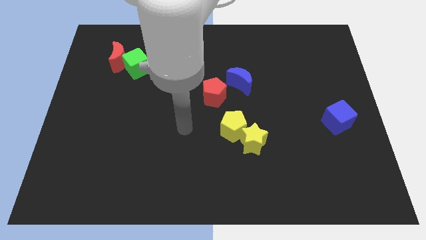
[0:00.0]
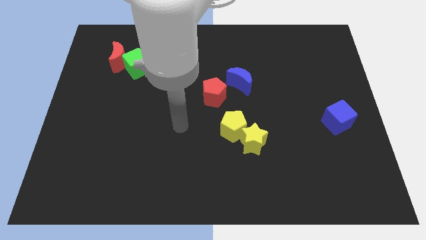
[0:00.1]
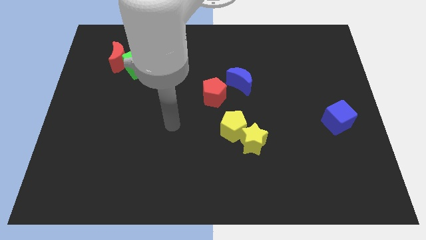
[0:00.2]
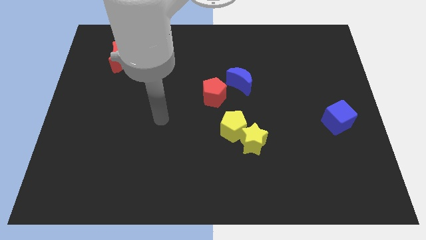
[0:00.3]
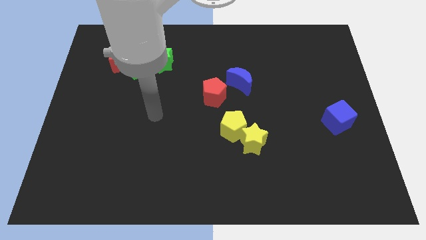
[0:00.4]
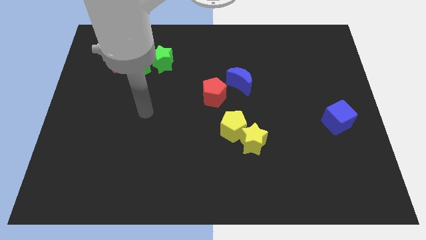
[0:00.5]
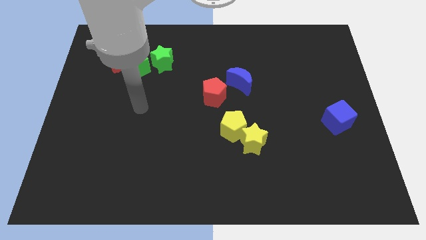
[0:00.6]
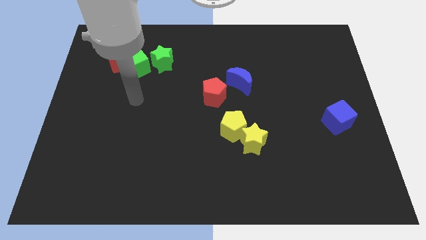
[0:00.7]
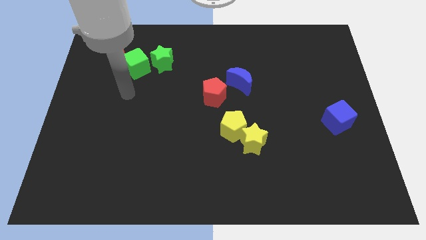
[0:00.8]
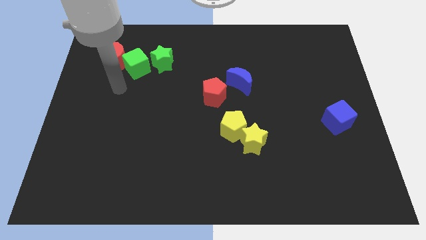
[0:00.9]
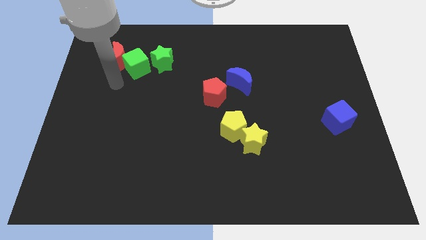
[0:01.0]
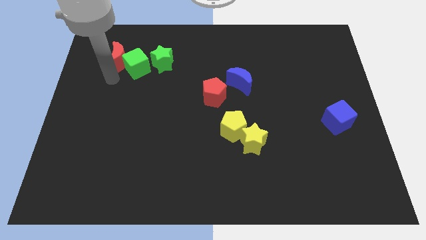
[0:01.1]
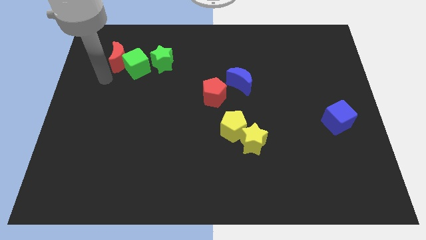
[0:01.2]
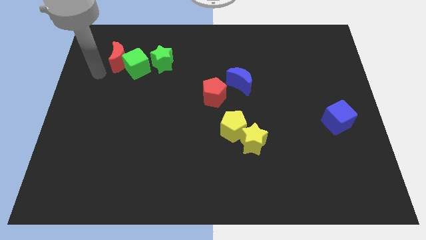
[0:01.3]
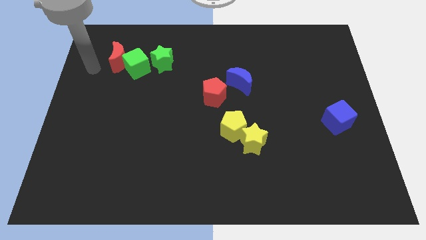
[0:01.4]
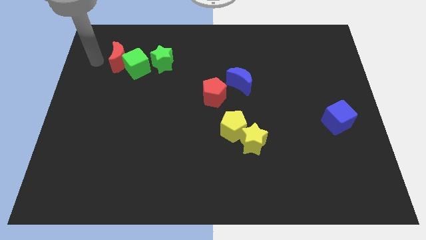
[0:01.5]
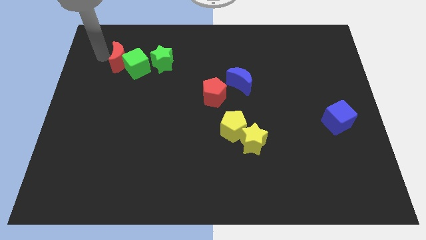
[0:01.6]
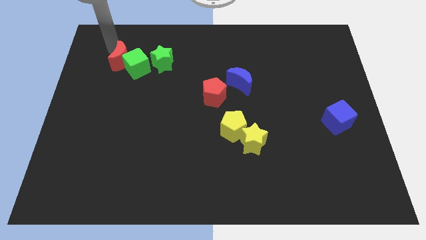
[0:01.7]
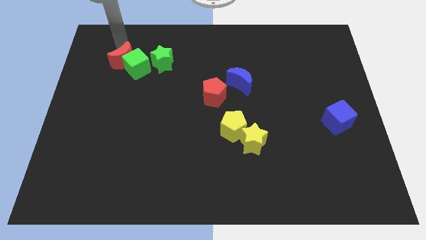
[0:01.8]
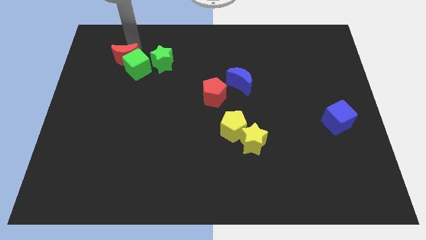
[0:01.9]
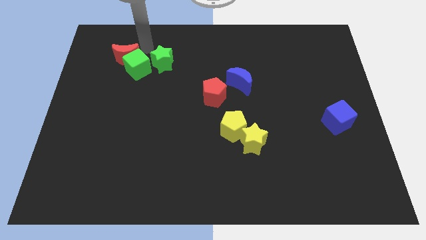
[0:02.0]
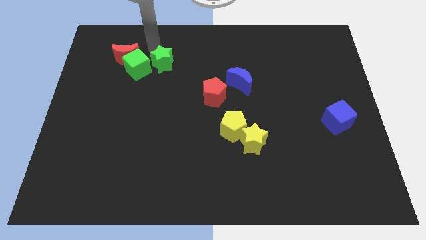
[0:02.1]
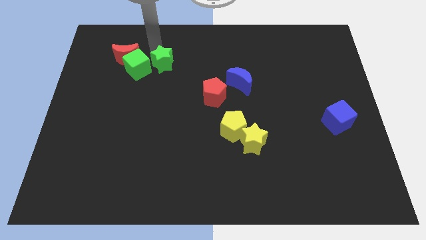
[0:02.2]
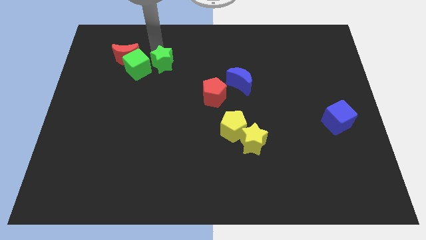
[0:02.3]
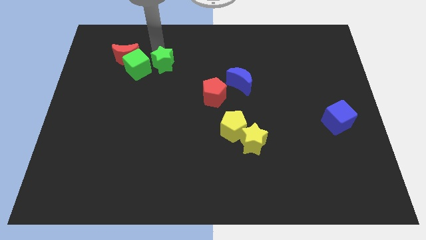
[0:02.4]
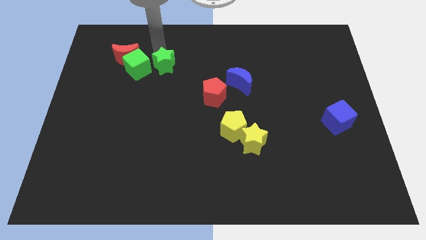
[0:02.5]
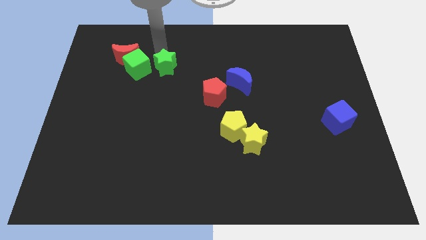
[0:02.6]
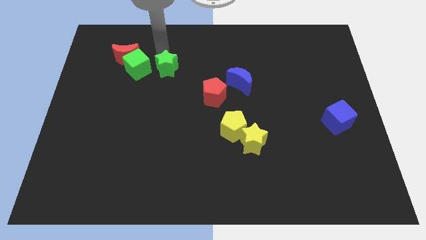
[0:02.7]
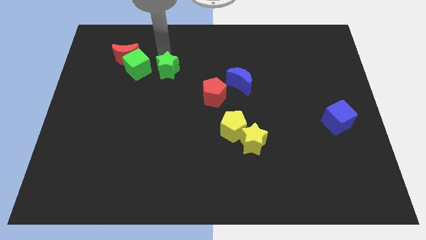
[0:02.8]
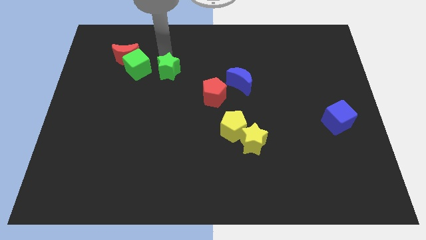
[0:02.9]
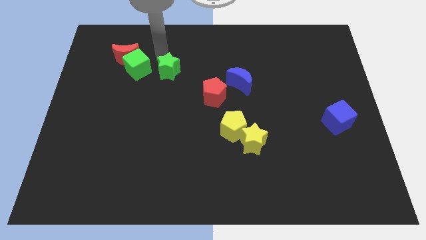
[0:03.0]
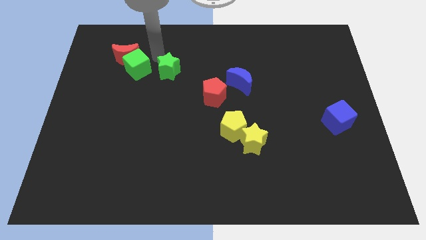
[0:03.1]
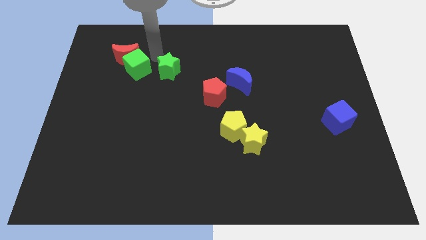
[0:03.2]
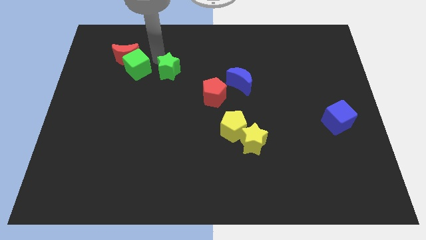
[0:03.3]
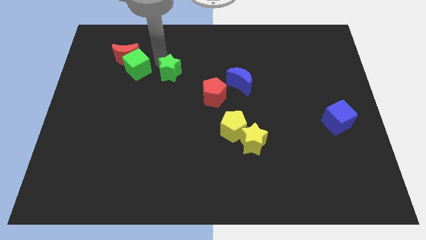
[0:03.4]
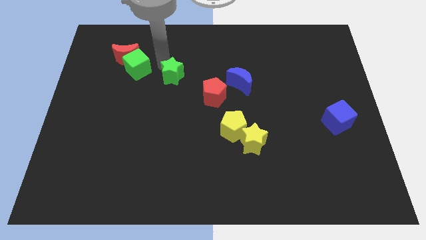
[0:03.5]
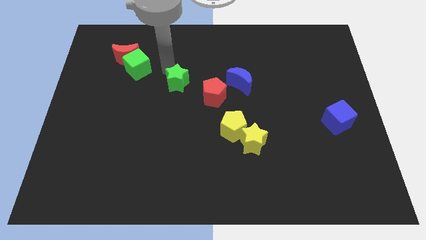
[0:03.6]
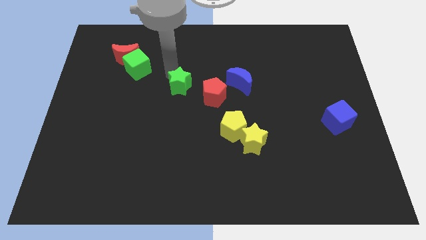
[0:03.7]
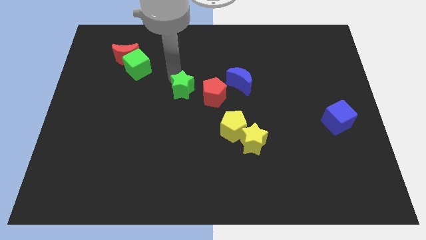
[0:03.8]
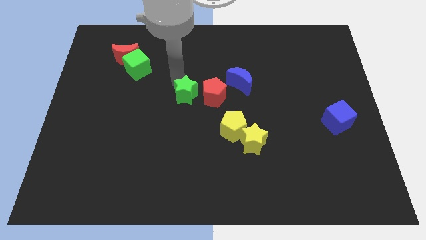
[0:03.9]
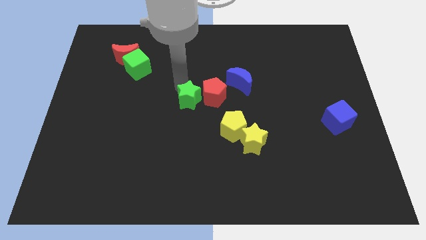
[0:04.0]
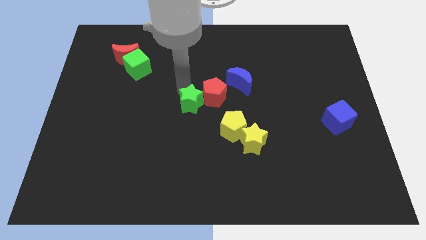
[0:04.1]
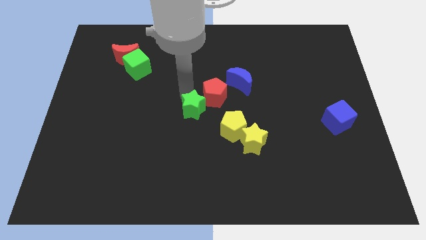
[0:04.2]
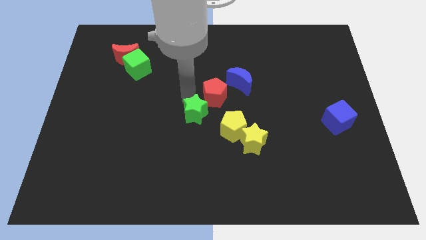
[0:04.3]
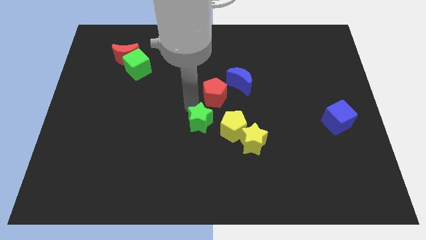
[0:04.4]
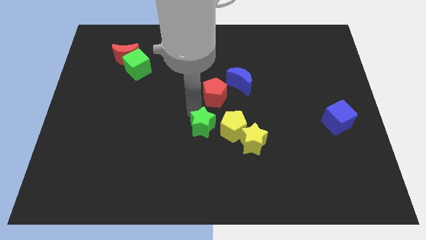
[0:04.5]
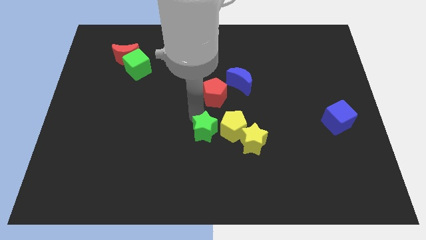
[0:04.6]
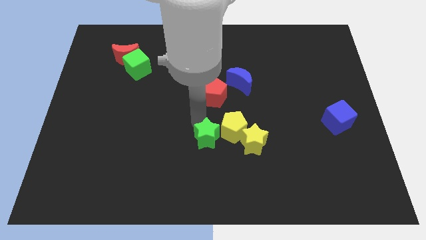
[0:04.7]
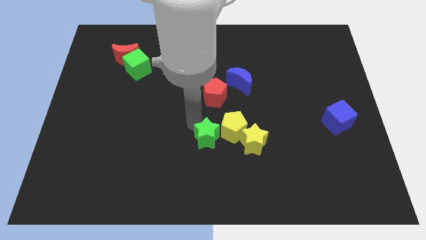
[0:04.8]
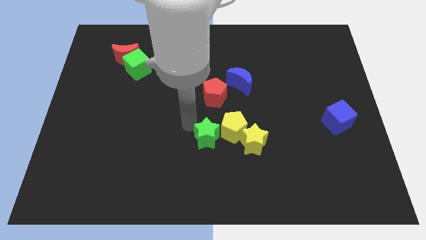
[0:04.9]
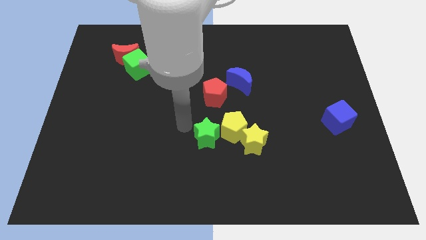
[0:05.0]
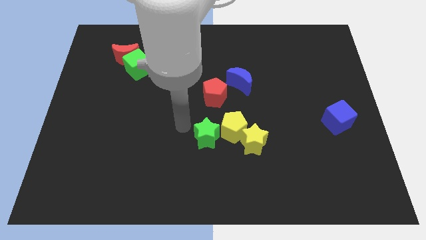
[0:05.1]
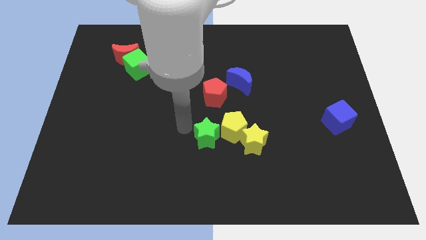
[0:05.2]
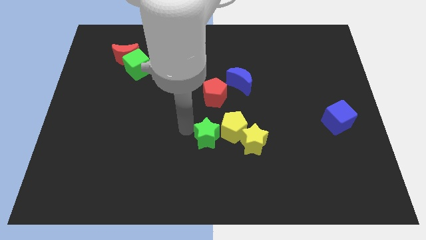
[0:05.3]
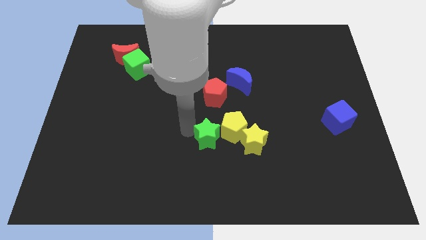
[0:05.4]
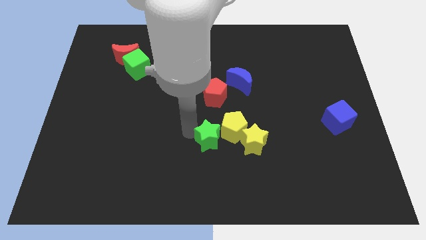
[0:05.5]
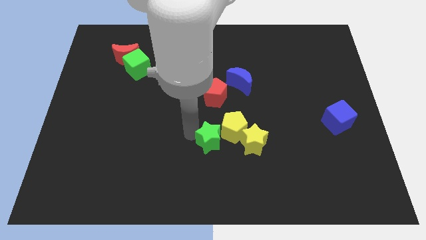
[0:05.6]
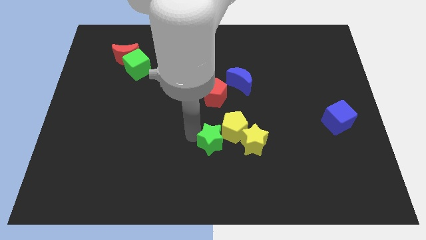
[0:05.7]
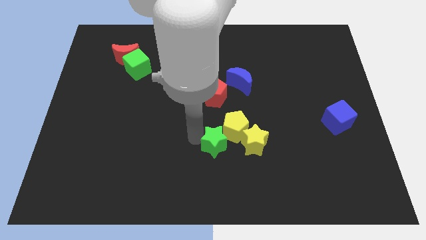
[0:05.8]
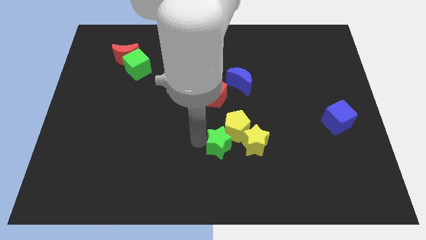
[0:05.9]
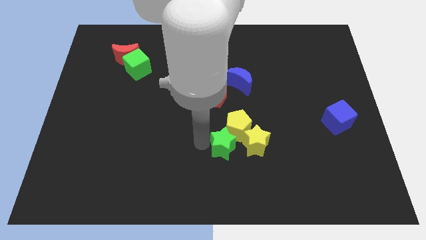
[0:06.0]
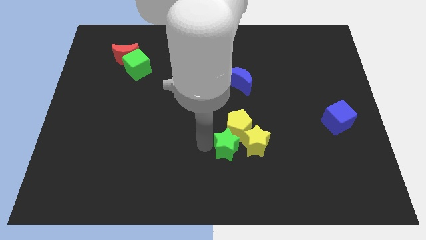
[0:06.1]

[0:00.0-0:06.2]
move the green star close to the yellow star

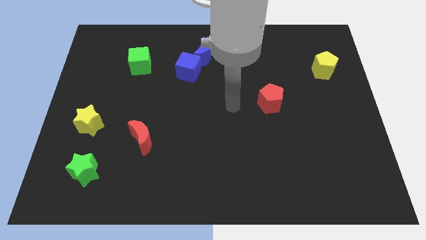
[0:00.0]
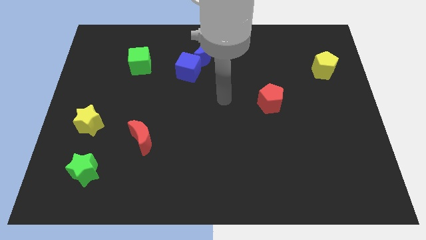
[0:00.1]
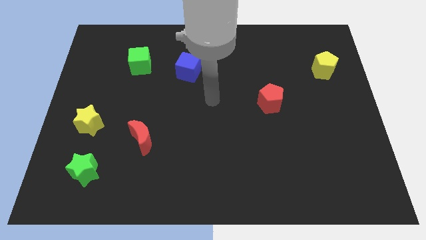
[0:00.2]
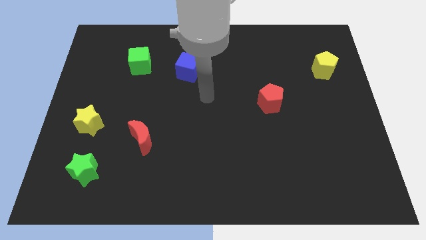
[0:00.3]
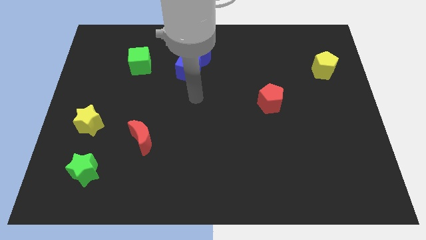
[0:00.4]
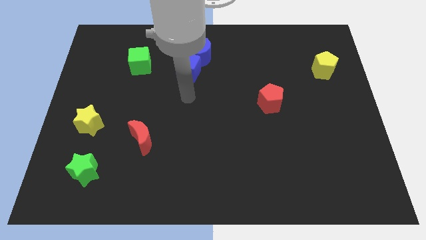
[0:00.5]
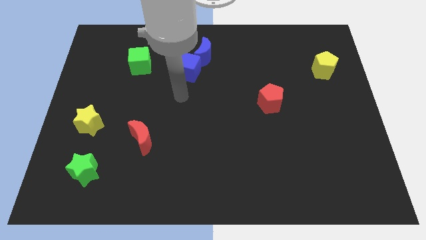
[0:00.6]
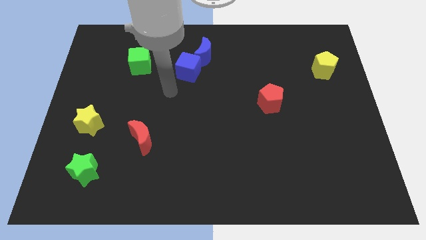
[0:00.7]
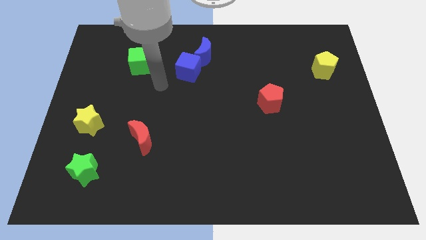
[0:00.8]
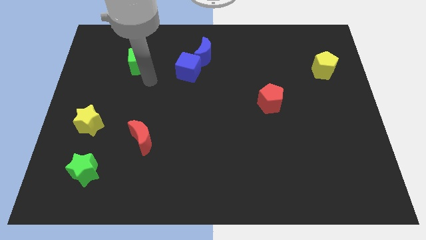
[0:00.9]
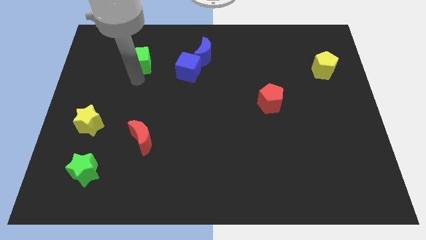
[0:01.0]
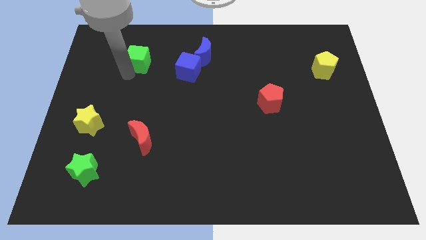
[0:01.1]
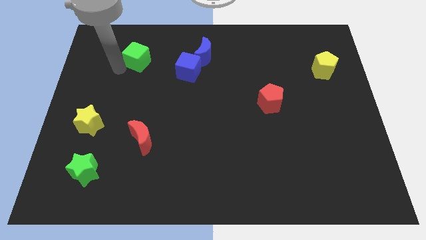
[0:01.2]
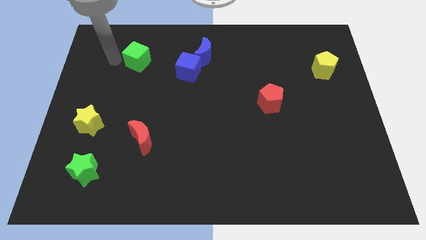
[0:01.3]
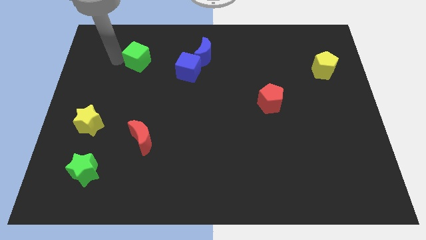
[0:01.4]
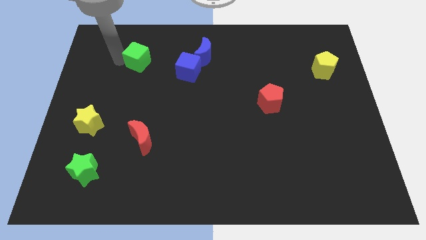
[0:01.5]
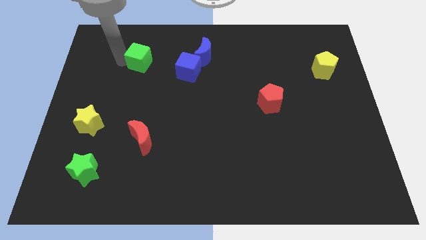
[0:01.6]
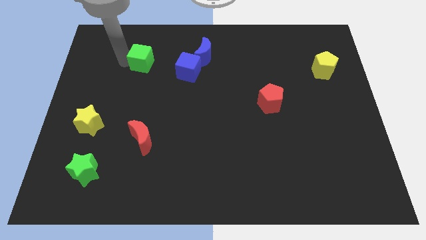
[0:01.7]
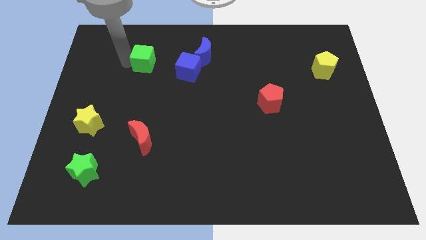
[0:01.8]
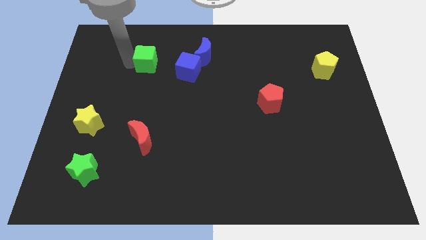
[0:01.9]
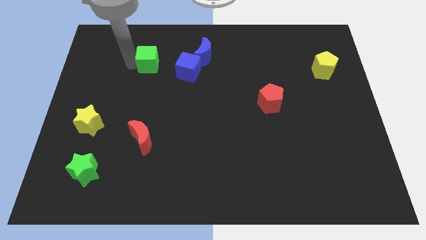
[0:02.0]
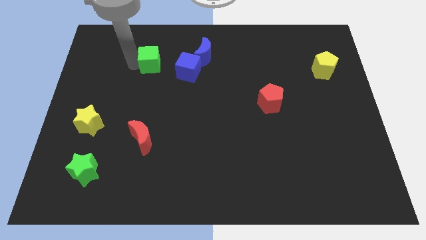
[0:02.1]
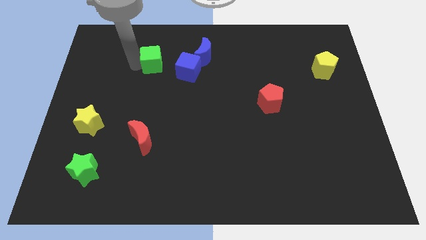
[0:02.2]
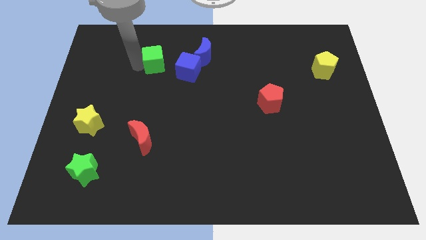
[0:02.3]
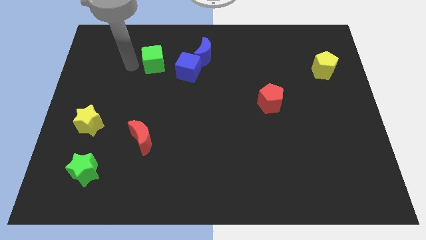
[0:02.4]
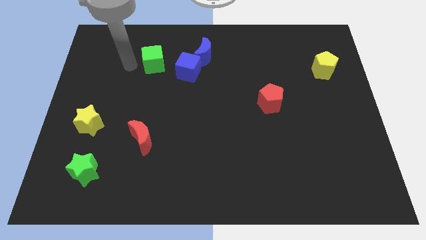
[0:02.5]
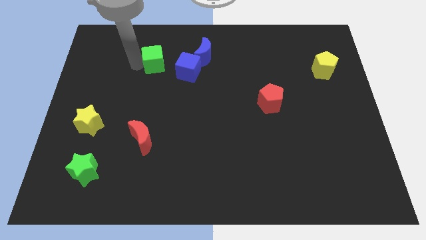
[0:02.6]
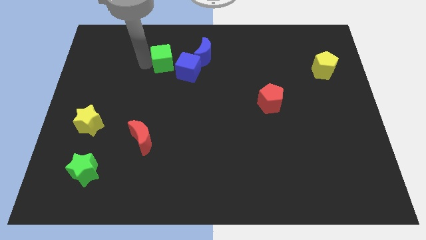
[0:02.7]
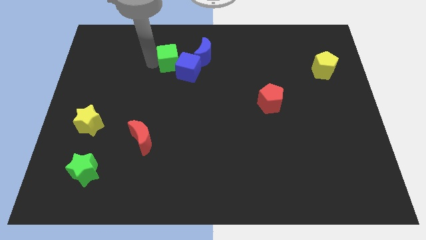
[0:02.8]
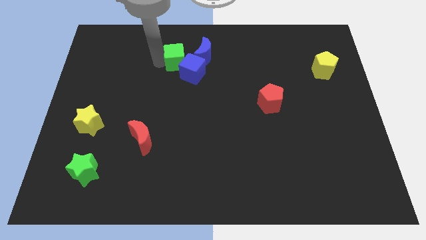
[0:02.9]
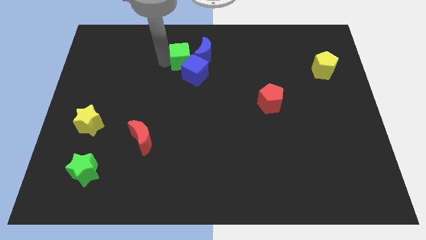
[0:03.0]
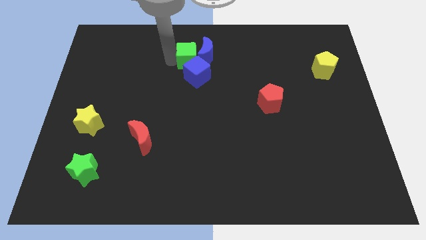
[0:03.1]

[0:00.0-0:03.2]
slide the green cube close to the blue moon
